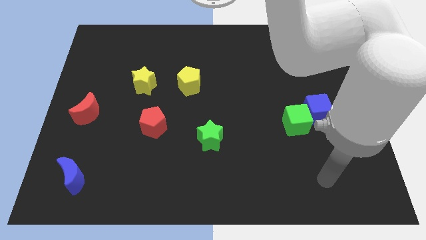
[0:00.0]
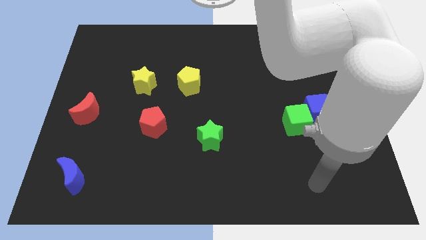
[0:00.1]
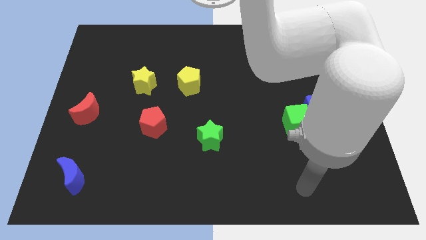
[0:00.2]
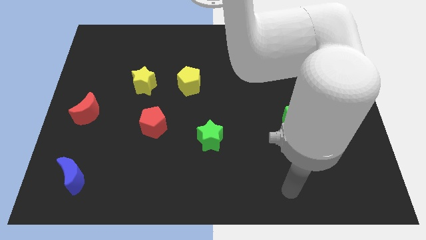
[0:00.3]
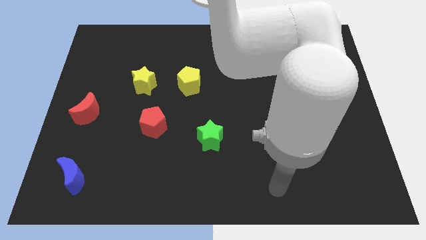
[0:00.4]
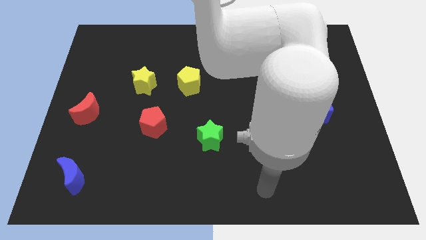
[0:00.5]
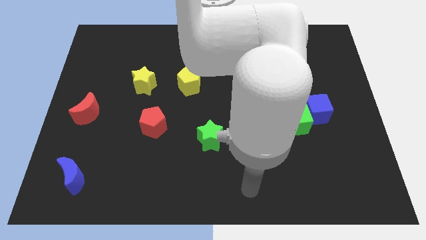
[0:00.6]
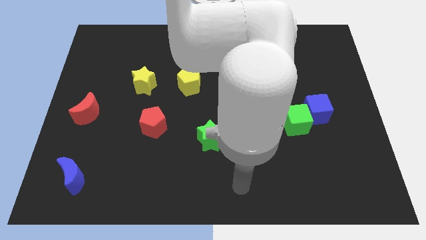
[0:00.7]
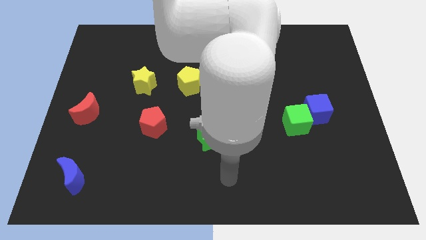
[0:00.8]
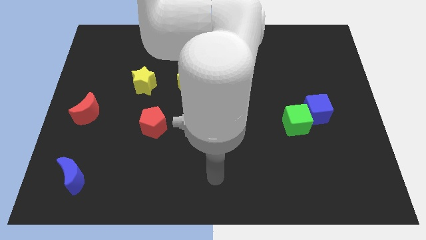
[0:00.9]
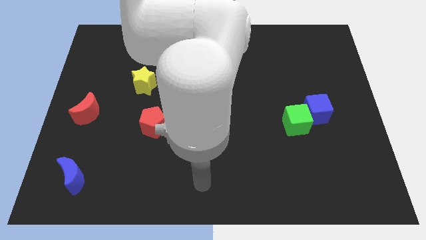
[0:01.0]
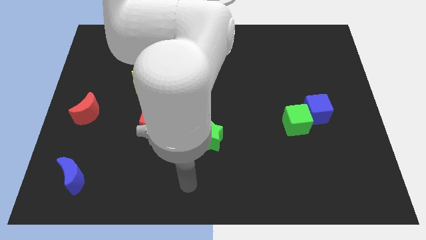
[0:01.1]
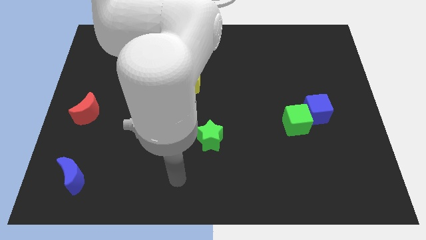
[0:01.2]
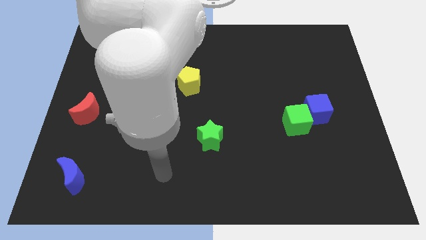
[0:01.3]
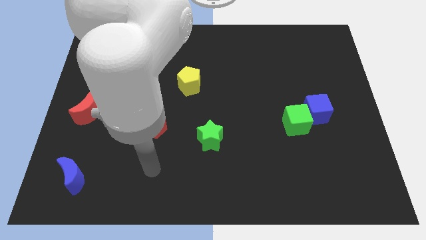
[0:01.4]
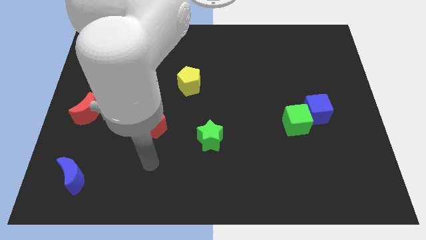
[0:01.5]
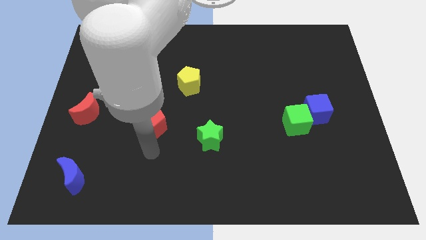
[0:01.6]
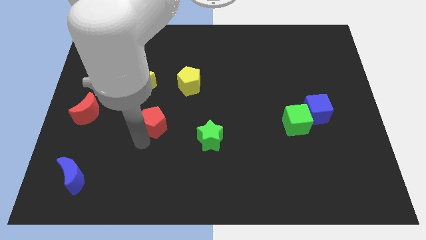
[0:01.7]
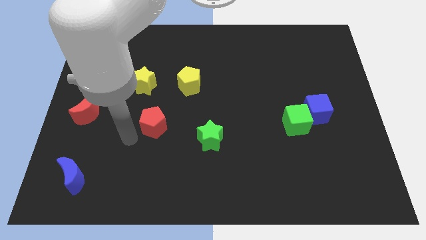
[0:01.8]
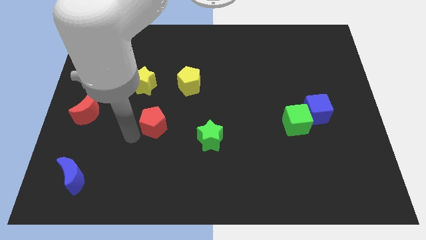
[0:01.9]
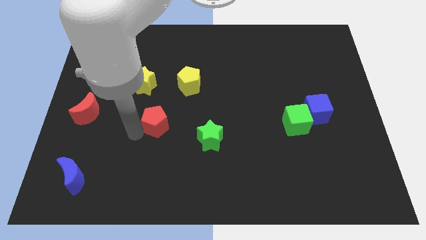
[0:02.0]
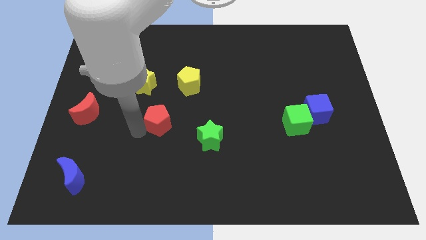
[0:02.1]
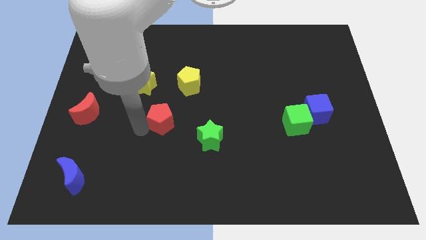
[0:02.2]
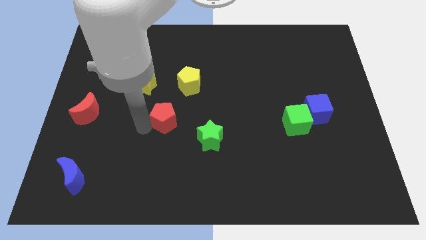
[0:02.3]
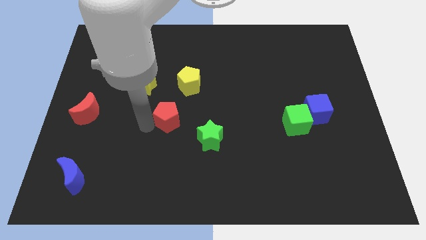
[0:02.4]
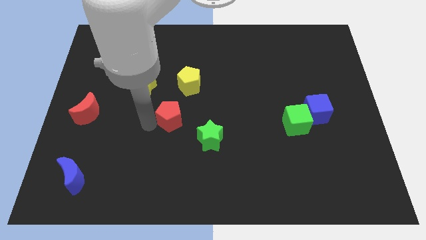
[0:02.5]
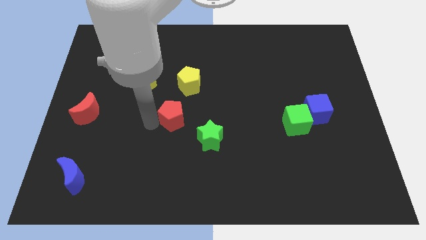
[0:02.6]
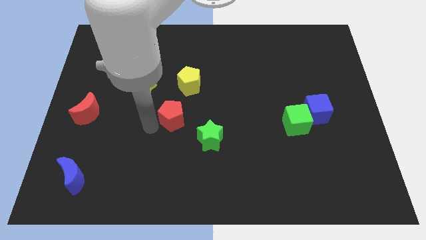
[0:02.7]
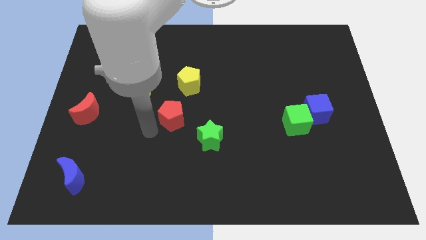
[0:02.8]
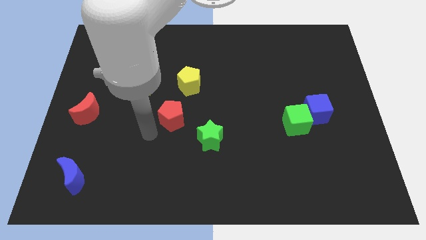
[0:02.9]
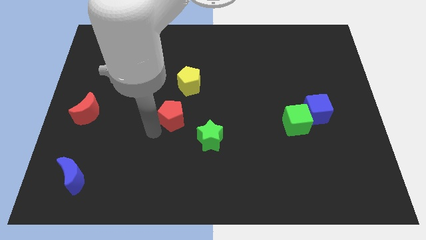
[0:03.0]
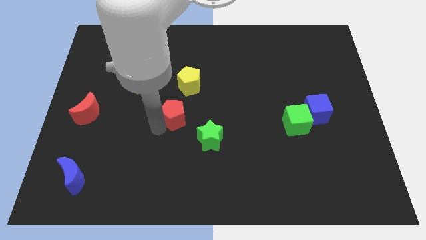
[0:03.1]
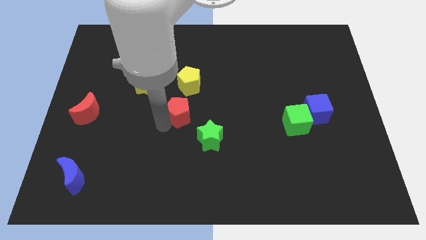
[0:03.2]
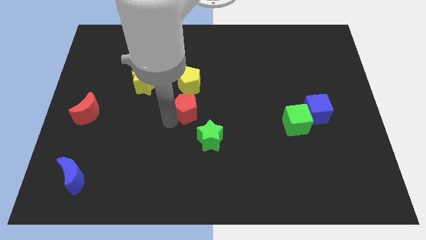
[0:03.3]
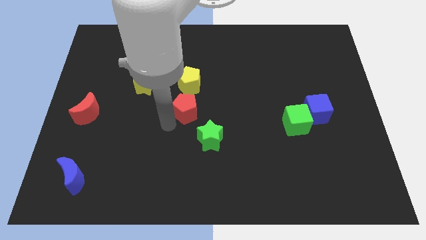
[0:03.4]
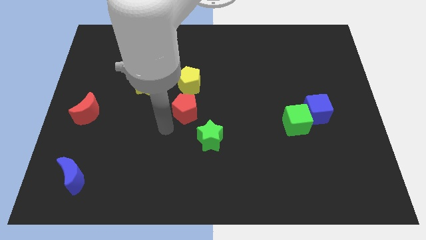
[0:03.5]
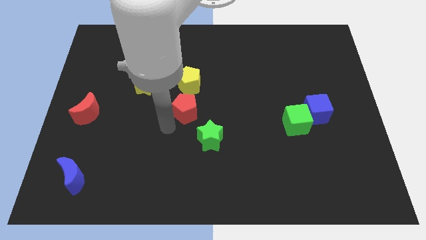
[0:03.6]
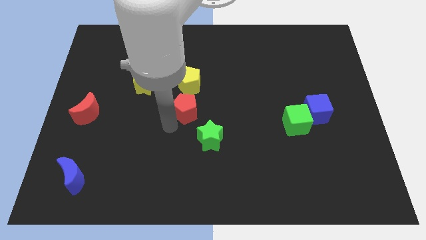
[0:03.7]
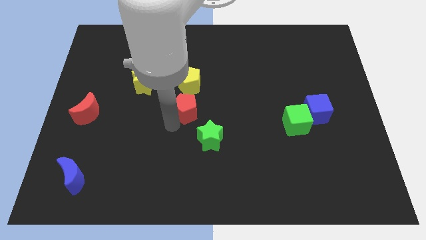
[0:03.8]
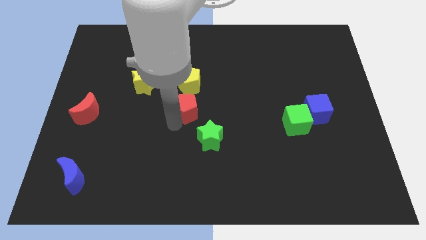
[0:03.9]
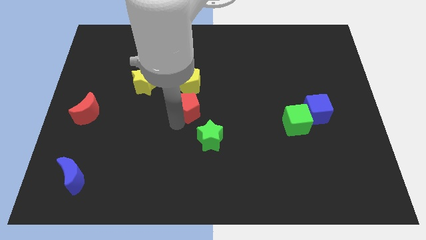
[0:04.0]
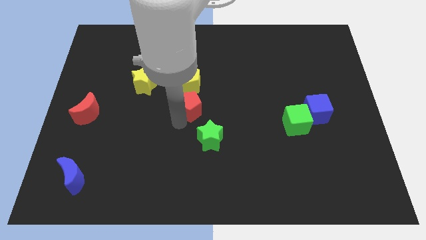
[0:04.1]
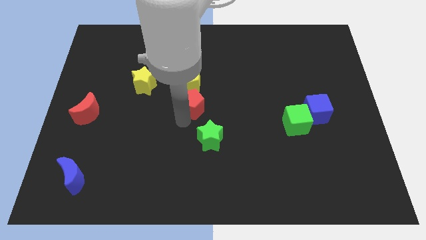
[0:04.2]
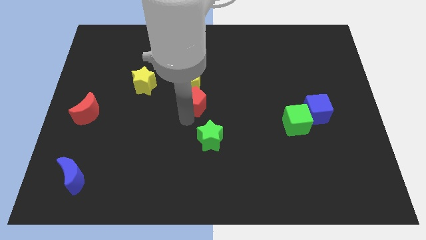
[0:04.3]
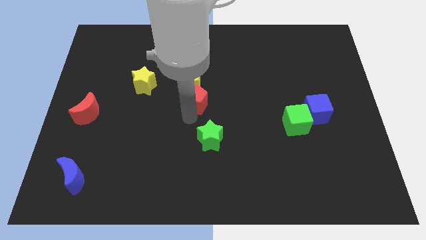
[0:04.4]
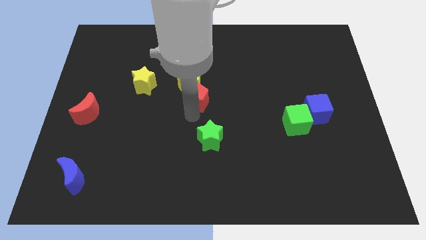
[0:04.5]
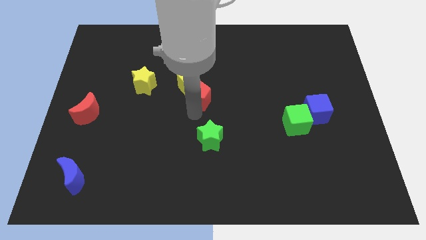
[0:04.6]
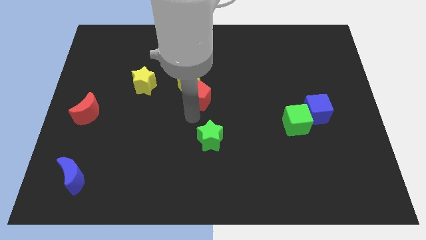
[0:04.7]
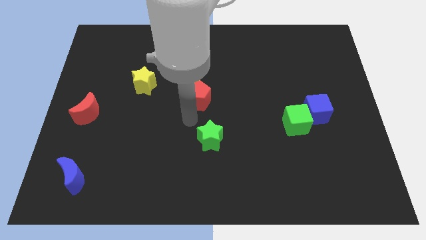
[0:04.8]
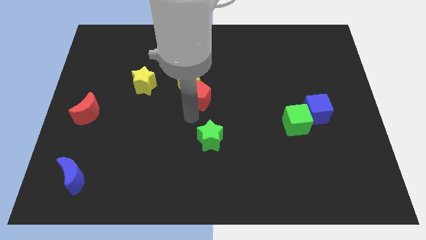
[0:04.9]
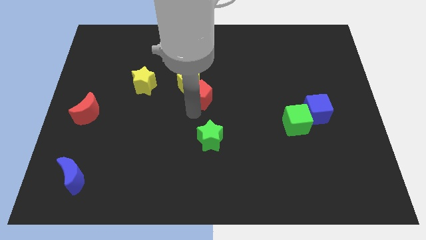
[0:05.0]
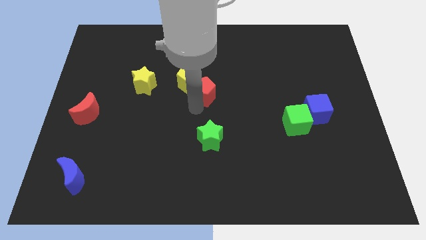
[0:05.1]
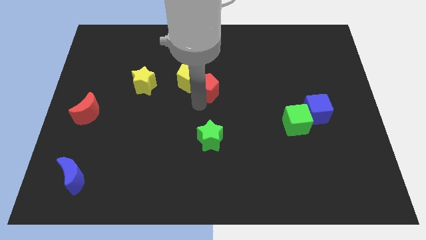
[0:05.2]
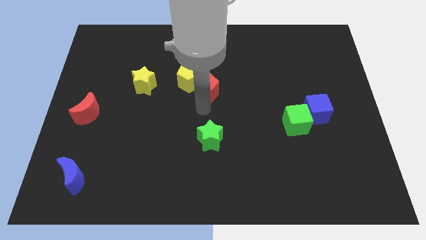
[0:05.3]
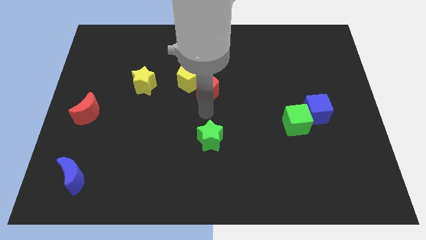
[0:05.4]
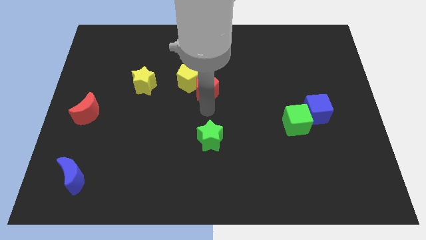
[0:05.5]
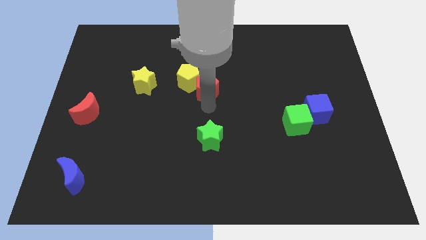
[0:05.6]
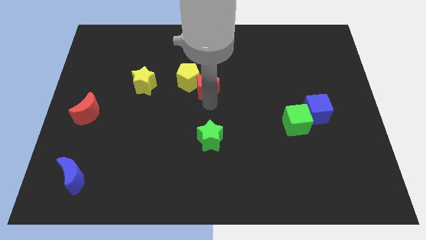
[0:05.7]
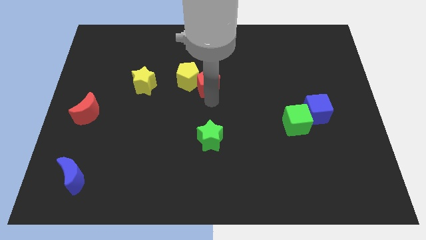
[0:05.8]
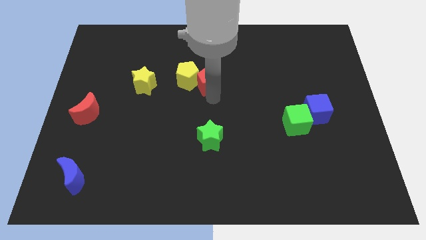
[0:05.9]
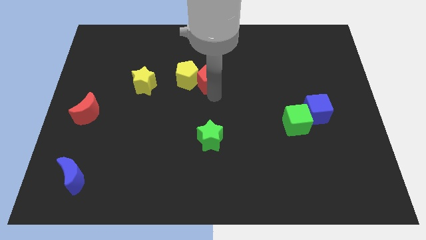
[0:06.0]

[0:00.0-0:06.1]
push the red pentagon to the top right side of the yellow pentagon

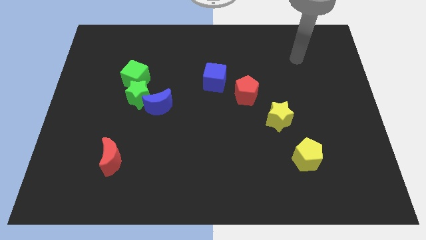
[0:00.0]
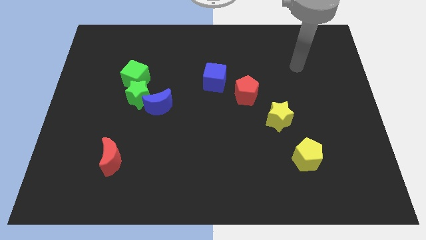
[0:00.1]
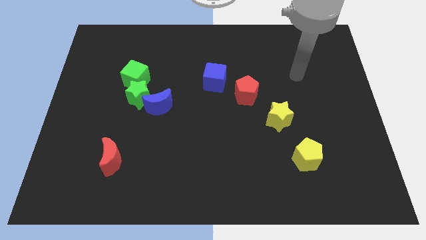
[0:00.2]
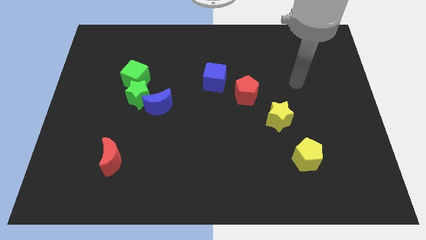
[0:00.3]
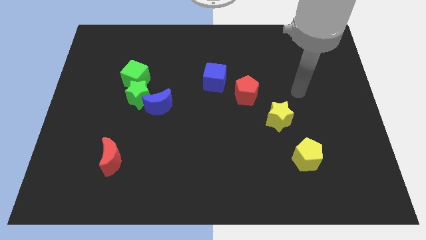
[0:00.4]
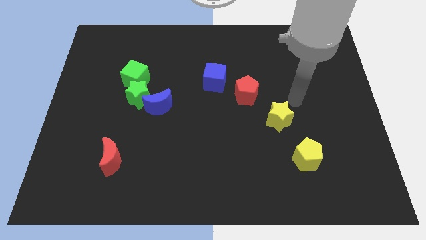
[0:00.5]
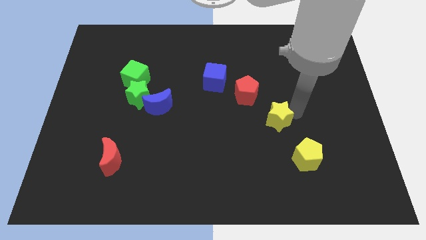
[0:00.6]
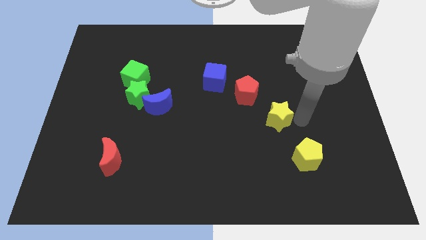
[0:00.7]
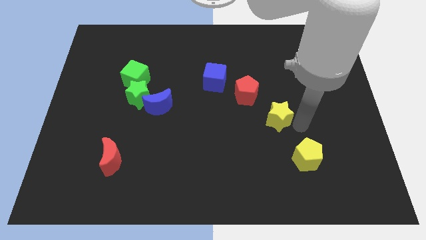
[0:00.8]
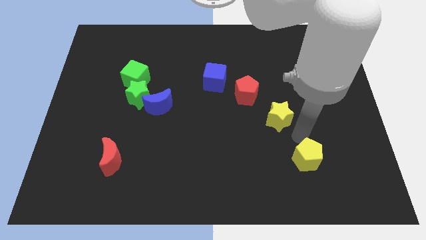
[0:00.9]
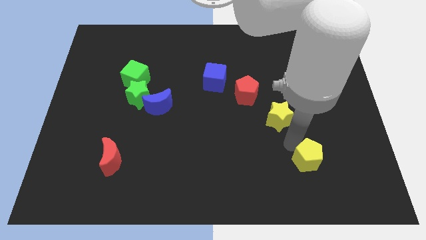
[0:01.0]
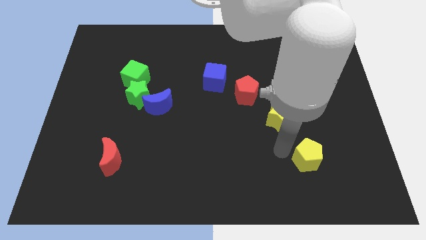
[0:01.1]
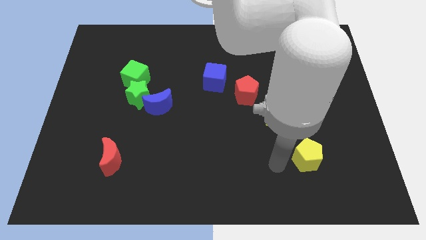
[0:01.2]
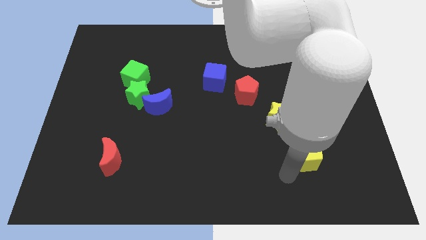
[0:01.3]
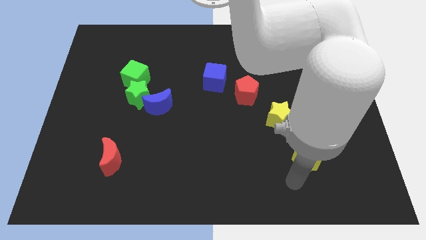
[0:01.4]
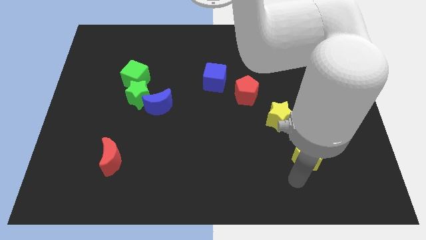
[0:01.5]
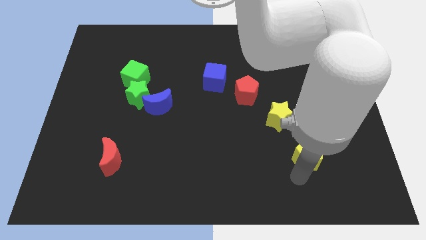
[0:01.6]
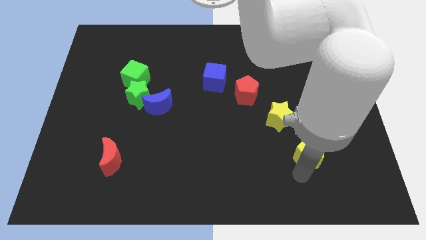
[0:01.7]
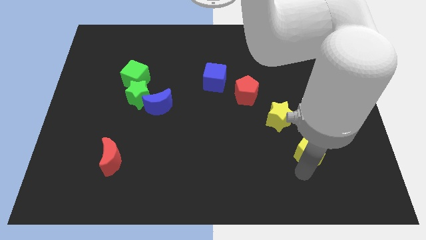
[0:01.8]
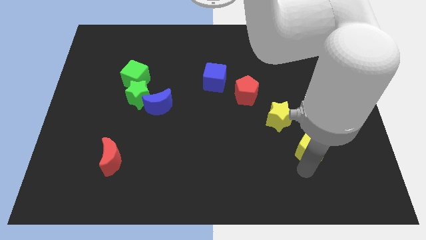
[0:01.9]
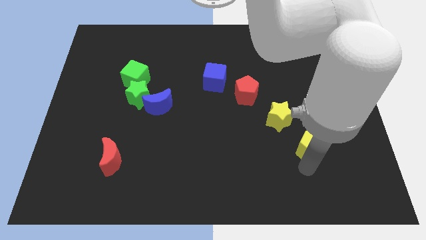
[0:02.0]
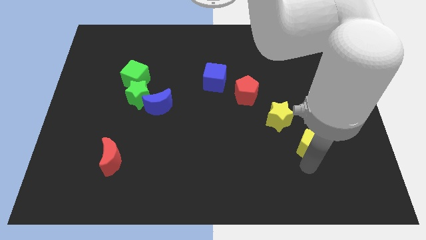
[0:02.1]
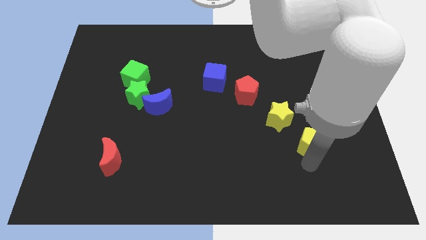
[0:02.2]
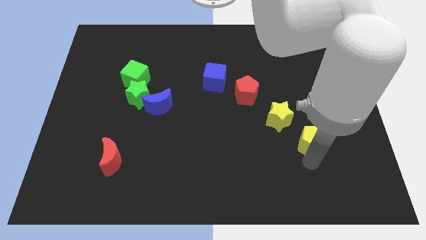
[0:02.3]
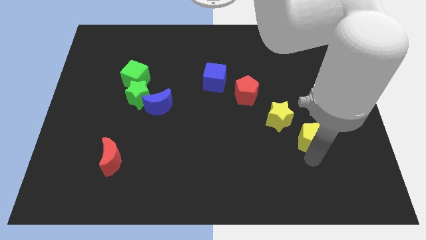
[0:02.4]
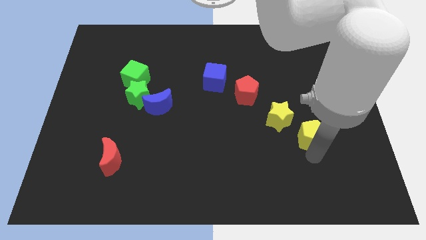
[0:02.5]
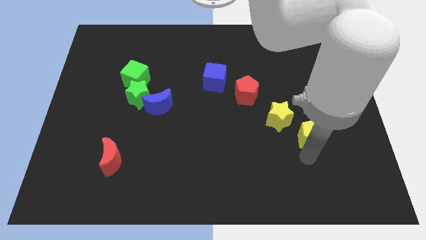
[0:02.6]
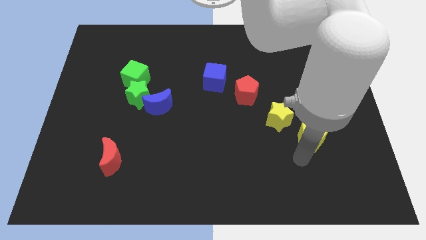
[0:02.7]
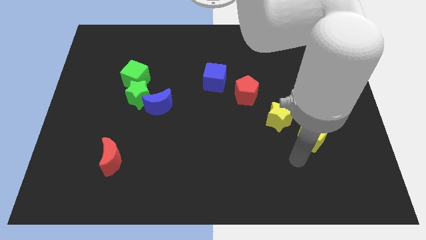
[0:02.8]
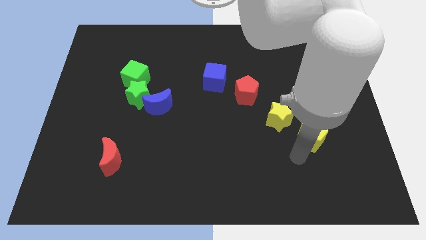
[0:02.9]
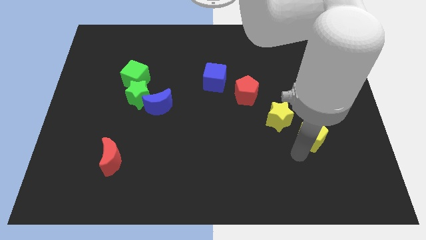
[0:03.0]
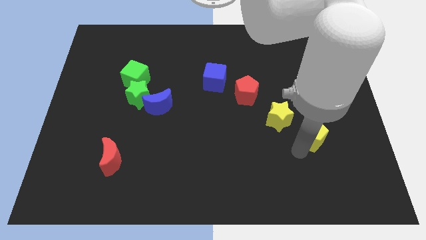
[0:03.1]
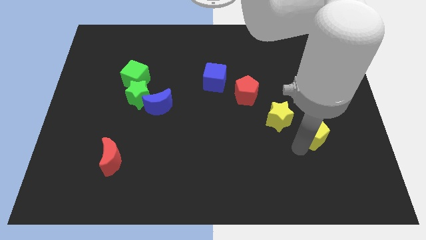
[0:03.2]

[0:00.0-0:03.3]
move the yellow pentagon right of the yellow star
